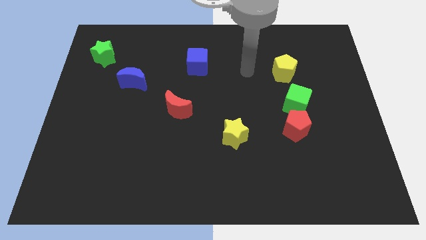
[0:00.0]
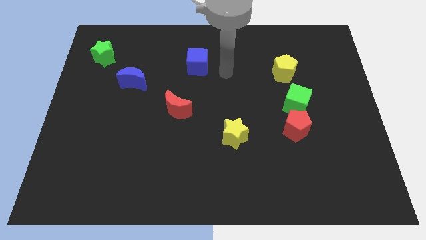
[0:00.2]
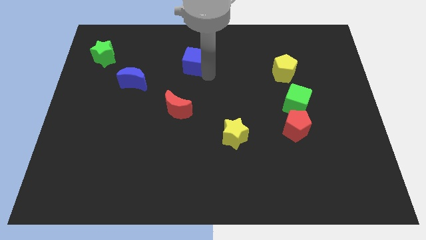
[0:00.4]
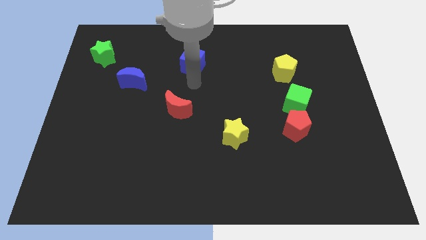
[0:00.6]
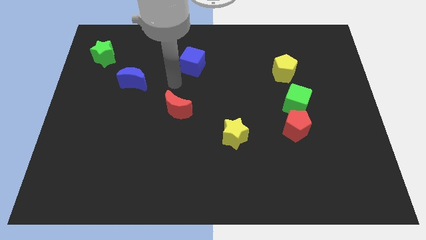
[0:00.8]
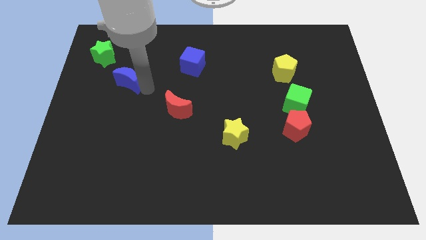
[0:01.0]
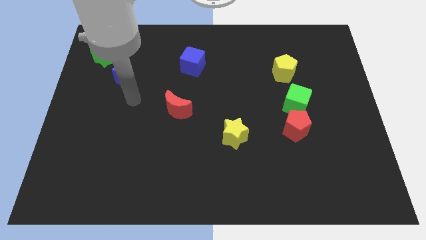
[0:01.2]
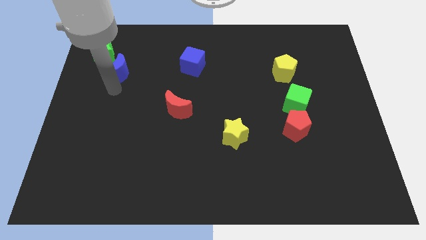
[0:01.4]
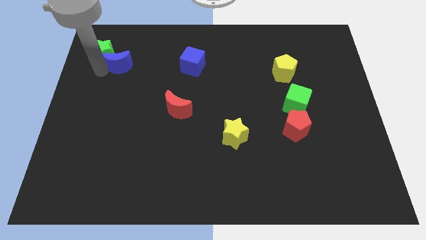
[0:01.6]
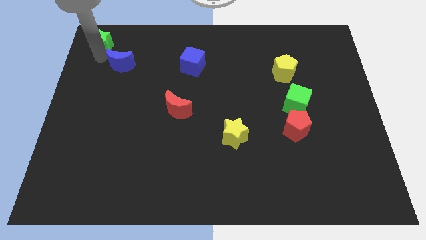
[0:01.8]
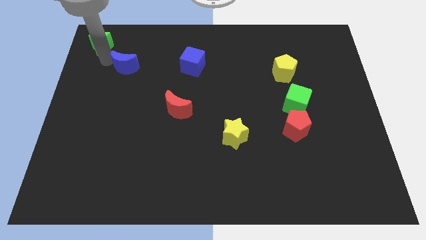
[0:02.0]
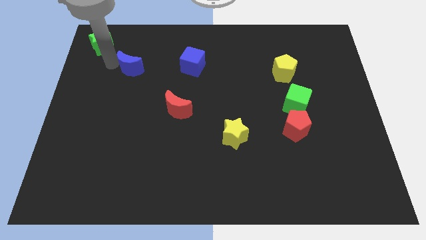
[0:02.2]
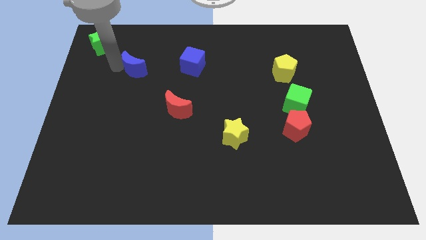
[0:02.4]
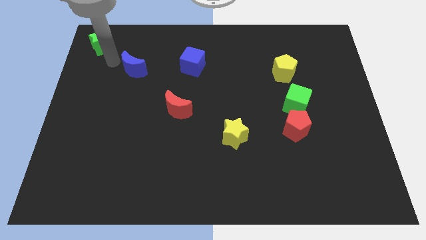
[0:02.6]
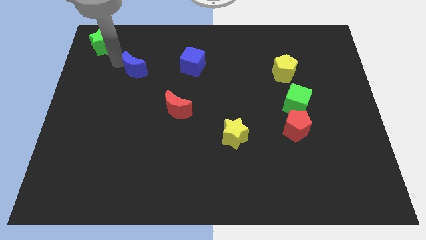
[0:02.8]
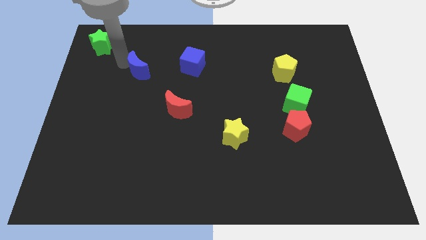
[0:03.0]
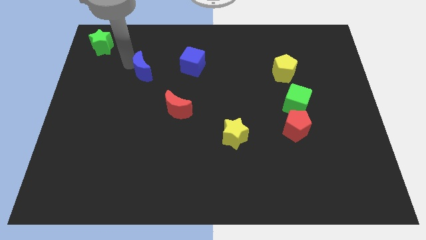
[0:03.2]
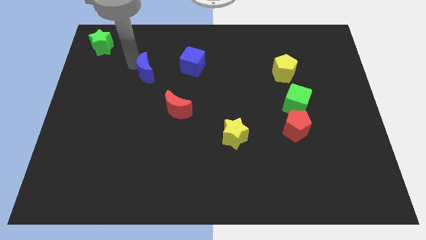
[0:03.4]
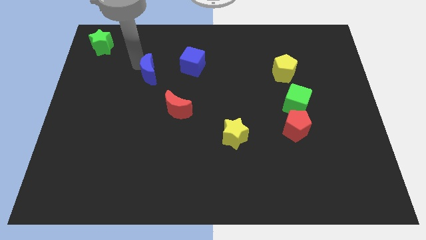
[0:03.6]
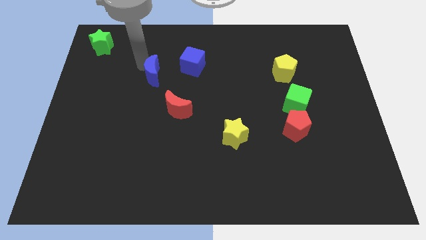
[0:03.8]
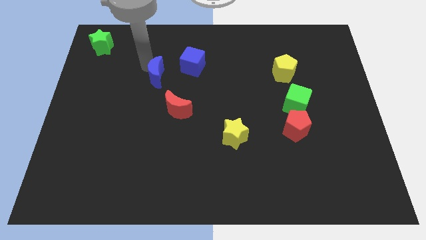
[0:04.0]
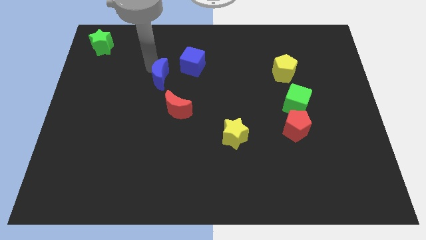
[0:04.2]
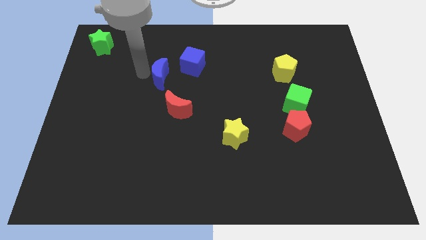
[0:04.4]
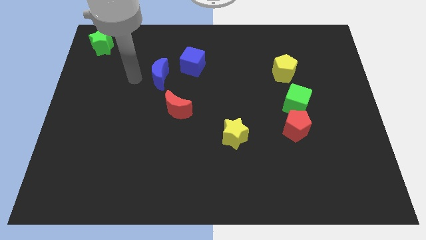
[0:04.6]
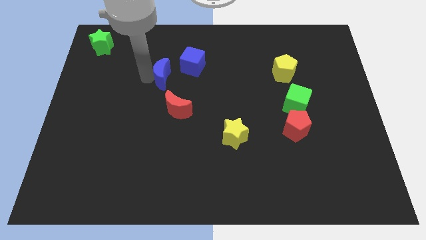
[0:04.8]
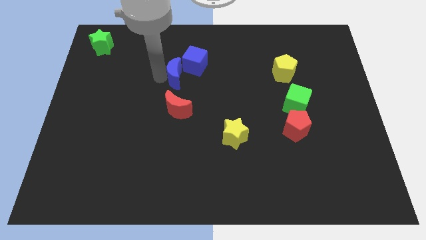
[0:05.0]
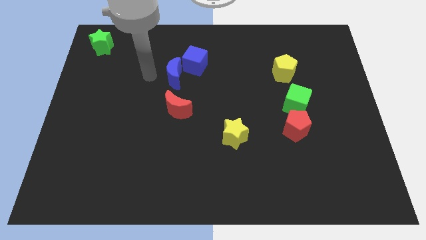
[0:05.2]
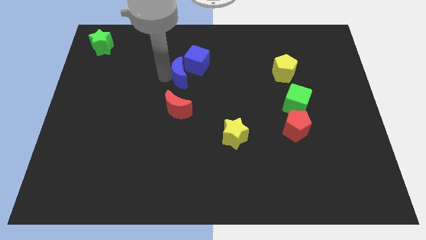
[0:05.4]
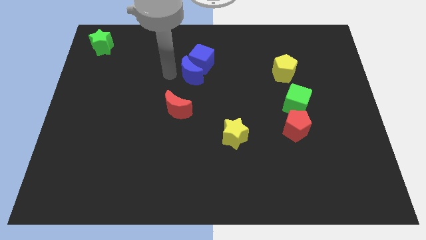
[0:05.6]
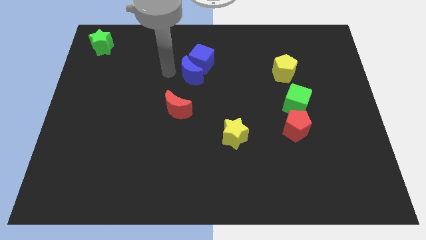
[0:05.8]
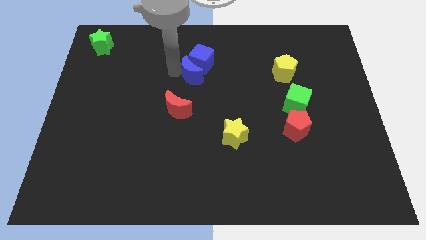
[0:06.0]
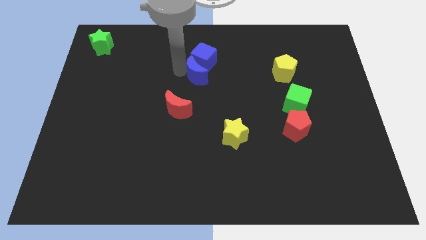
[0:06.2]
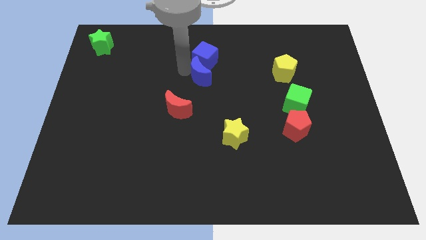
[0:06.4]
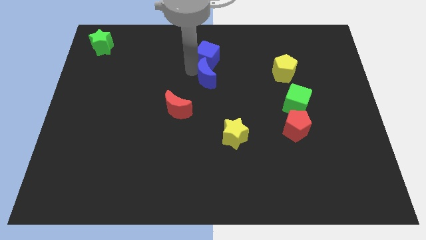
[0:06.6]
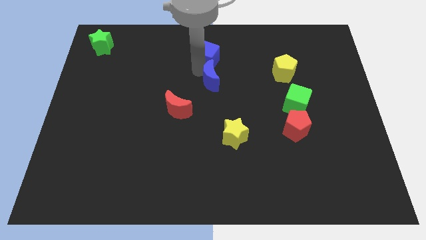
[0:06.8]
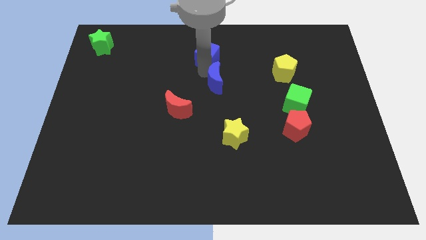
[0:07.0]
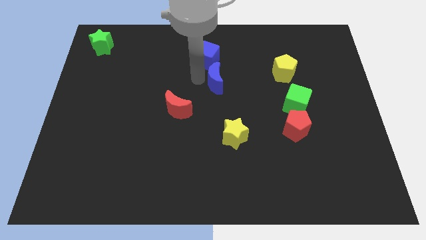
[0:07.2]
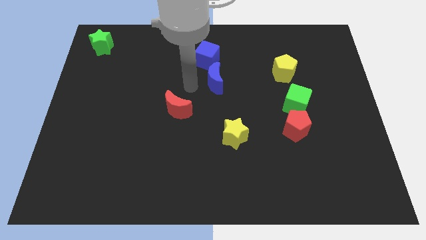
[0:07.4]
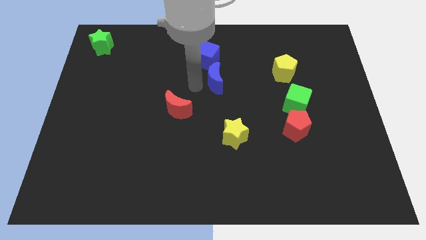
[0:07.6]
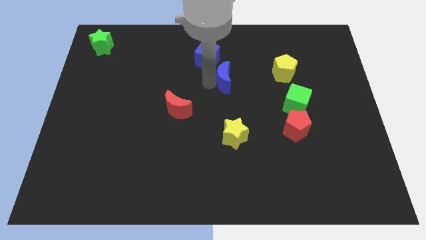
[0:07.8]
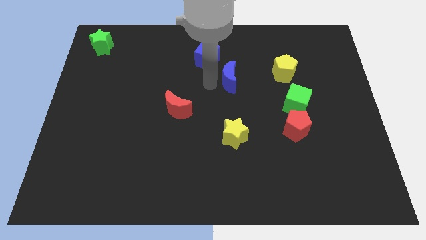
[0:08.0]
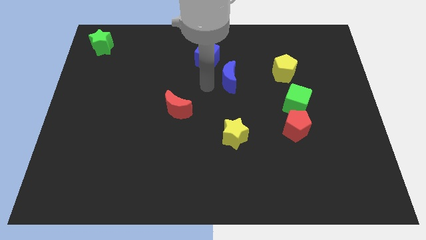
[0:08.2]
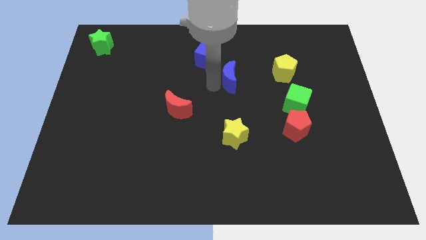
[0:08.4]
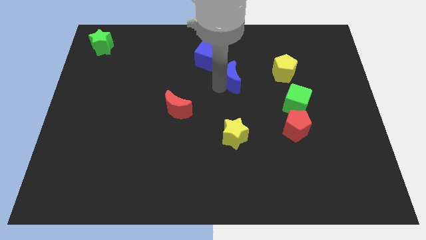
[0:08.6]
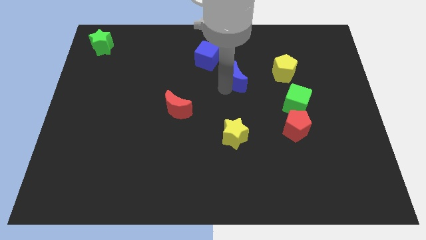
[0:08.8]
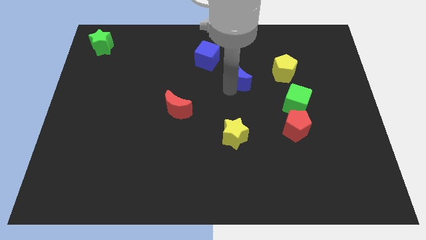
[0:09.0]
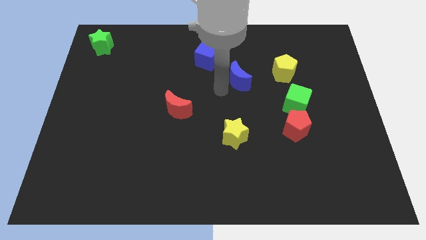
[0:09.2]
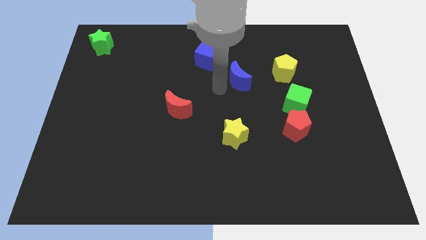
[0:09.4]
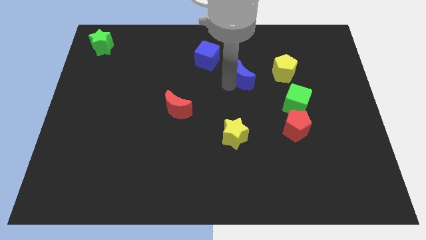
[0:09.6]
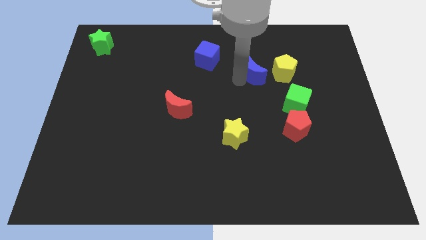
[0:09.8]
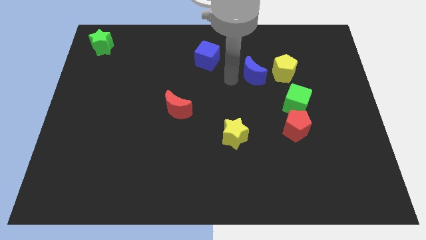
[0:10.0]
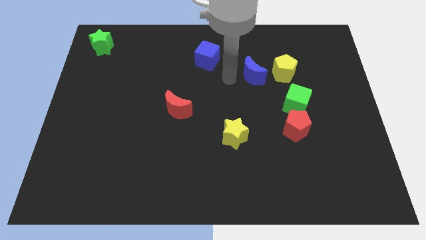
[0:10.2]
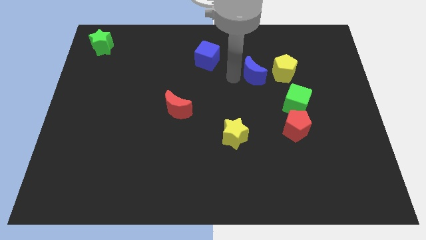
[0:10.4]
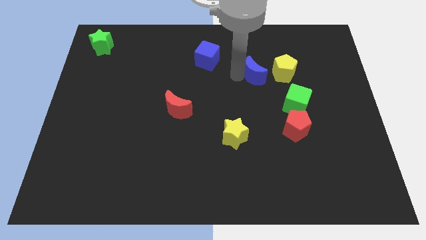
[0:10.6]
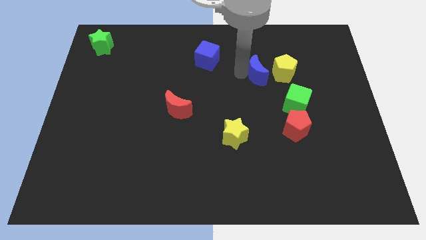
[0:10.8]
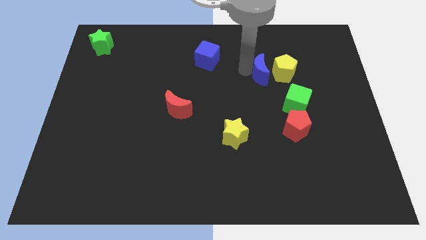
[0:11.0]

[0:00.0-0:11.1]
put the blue moon to the yellow pentagon
